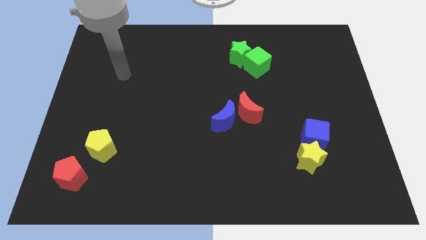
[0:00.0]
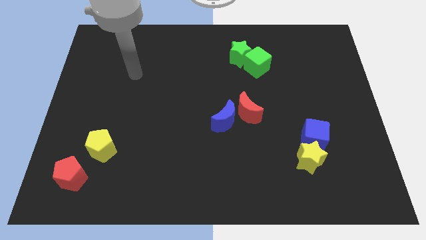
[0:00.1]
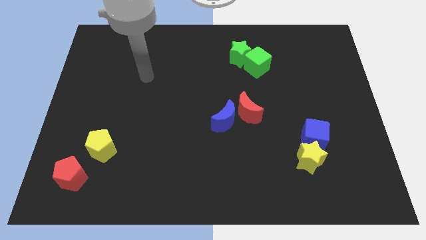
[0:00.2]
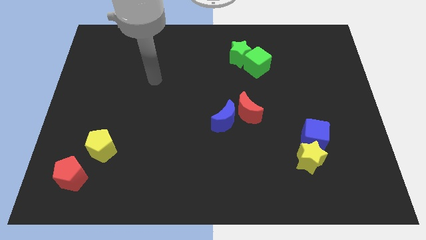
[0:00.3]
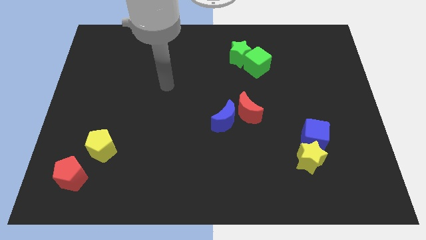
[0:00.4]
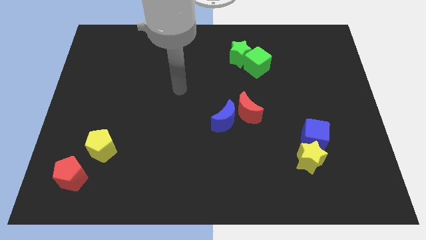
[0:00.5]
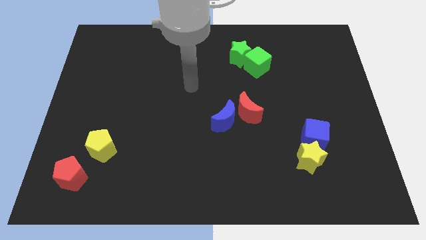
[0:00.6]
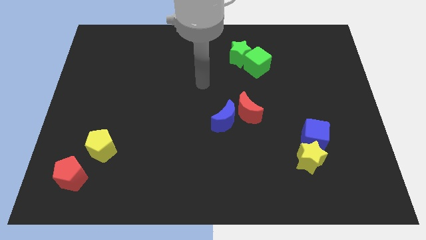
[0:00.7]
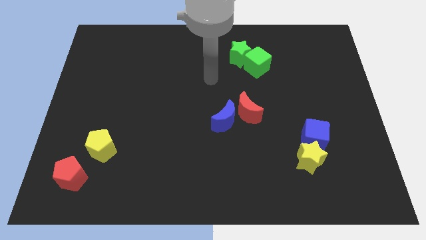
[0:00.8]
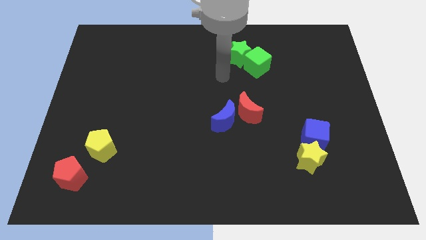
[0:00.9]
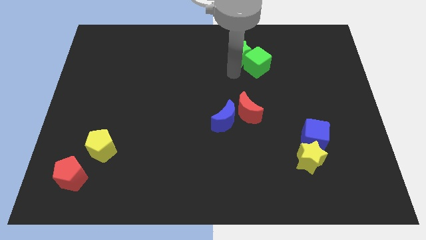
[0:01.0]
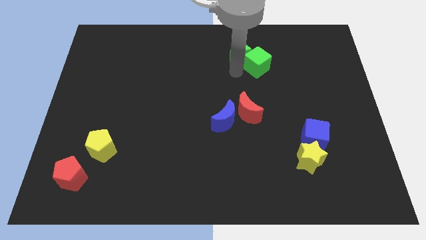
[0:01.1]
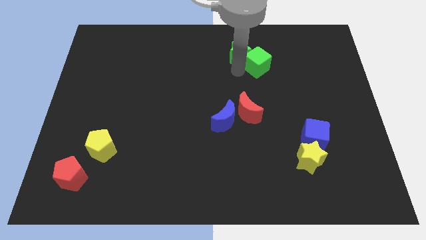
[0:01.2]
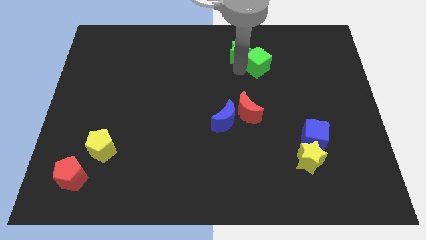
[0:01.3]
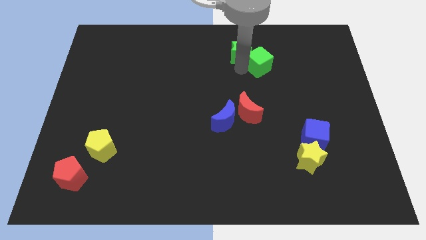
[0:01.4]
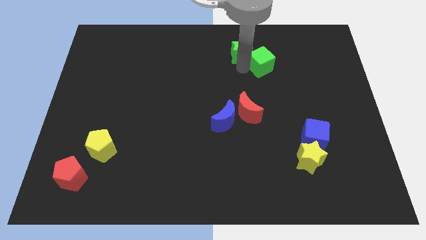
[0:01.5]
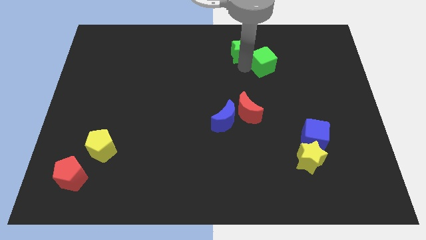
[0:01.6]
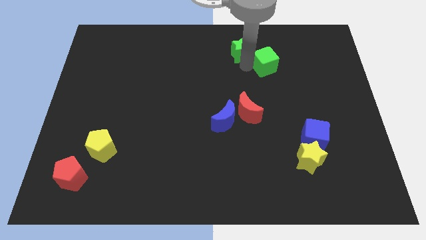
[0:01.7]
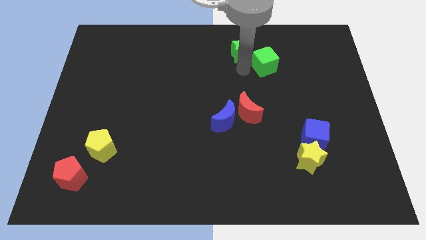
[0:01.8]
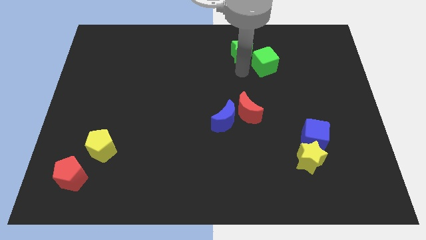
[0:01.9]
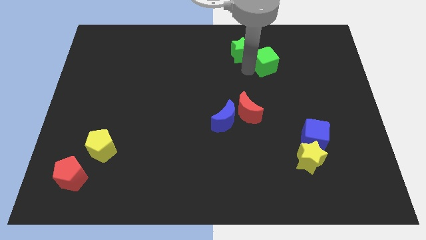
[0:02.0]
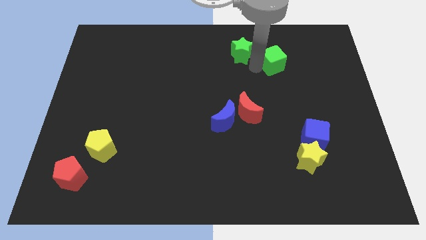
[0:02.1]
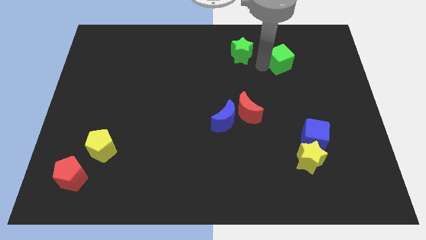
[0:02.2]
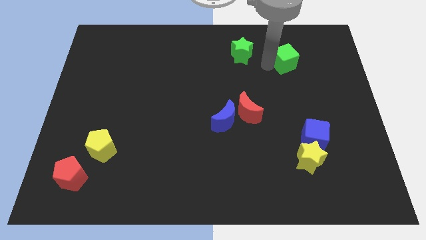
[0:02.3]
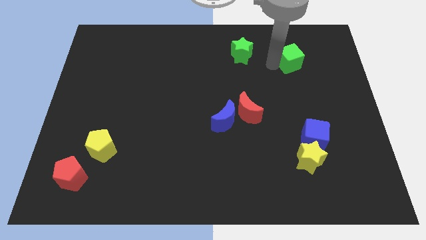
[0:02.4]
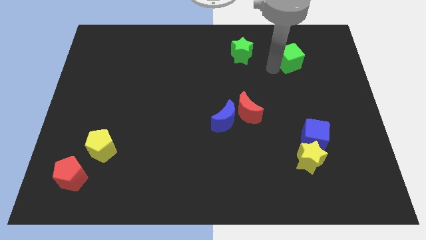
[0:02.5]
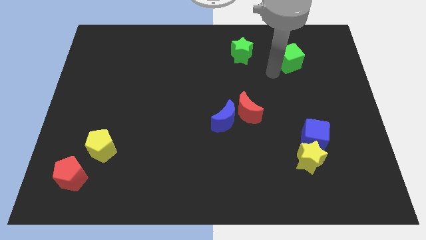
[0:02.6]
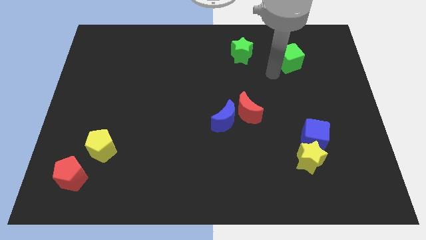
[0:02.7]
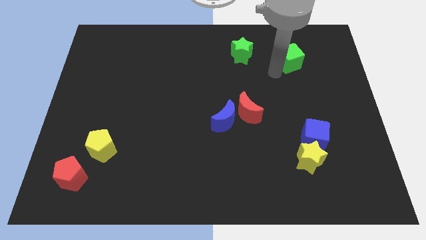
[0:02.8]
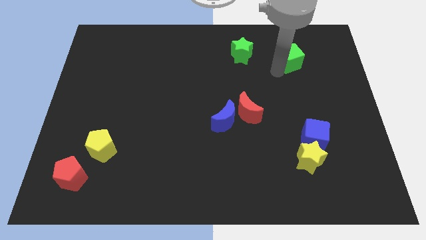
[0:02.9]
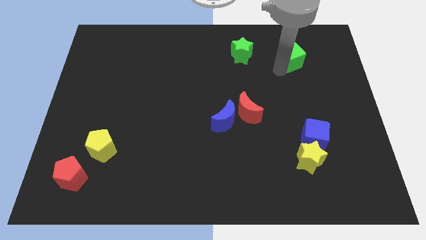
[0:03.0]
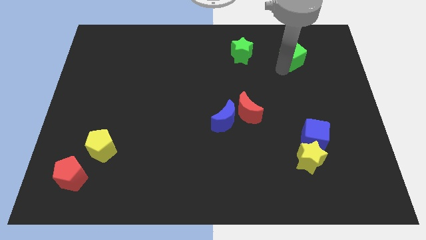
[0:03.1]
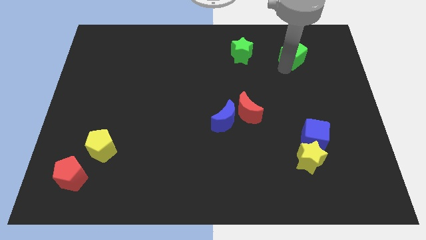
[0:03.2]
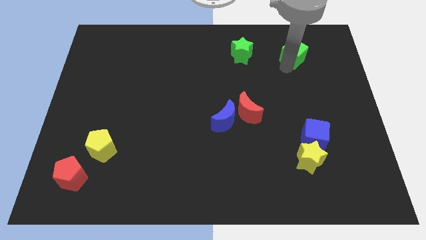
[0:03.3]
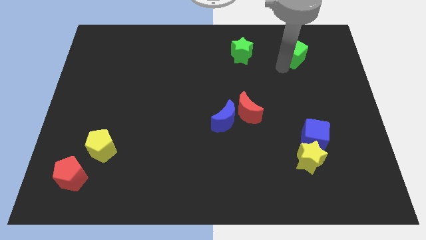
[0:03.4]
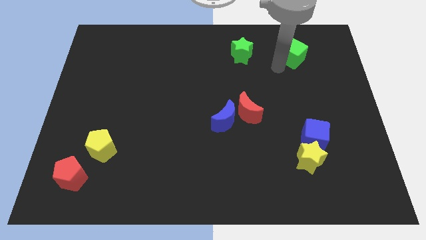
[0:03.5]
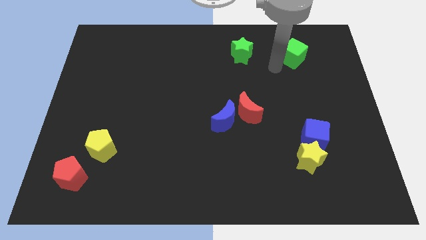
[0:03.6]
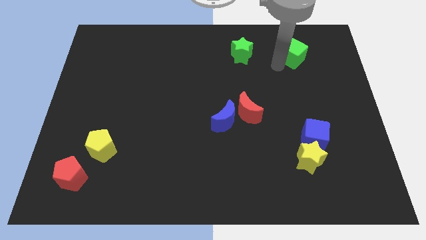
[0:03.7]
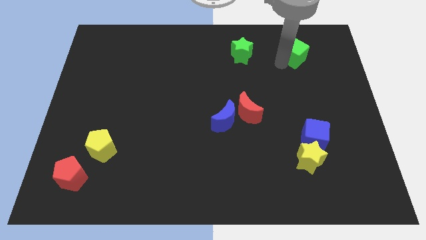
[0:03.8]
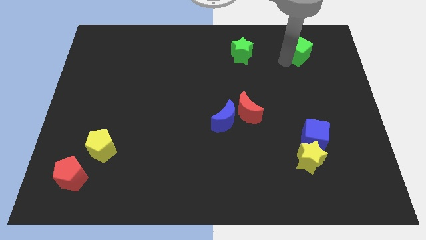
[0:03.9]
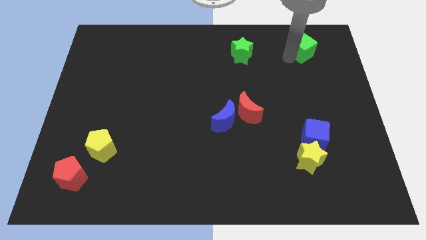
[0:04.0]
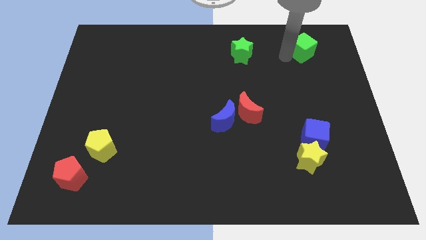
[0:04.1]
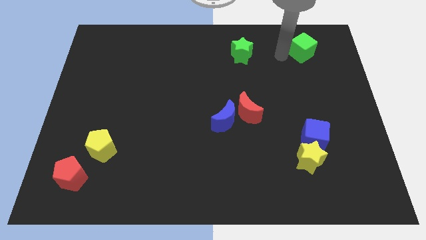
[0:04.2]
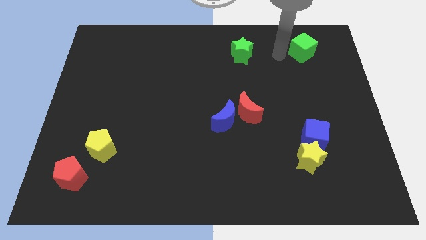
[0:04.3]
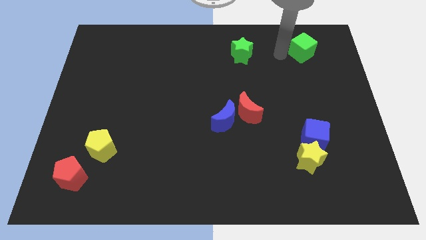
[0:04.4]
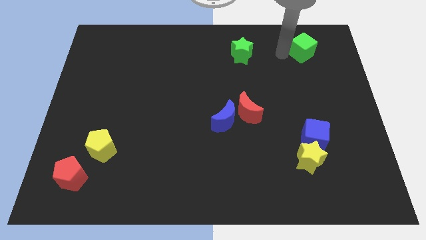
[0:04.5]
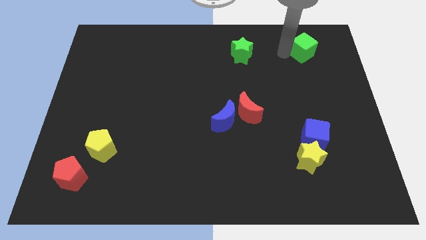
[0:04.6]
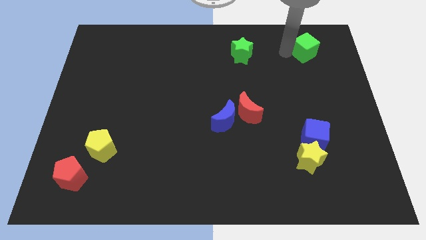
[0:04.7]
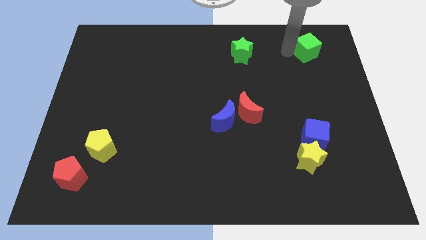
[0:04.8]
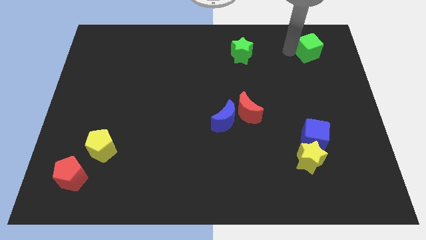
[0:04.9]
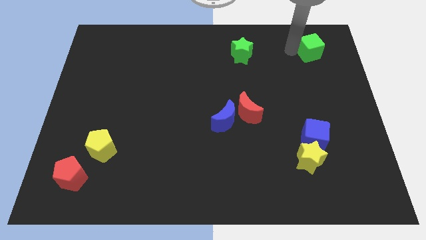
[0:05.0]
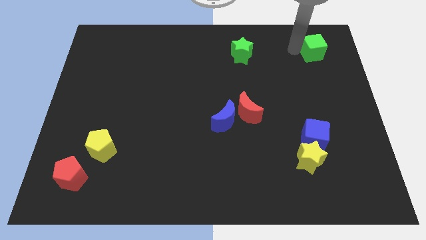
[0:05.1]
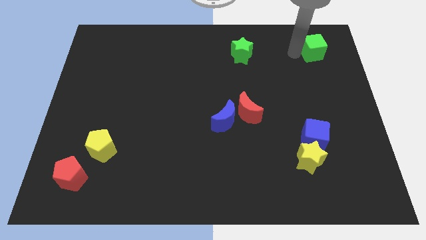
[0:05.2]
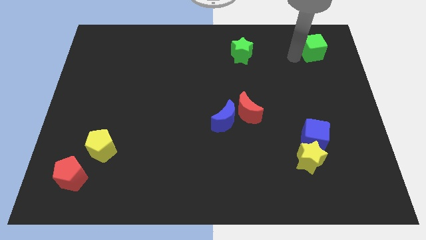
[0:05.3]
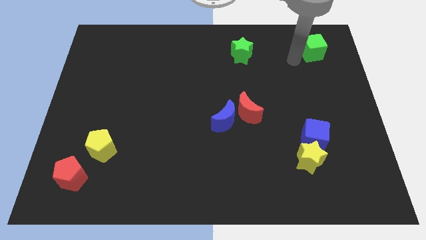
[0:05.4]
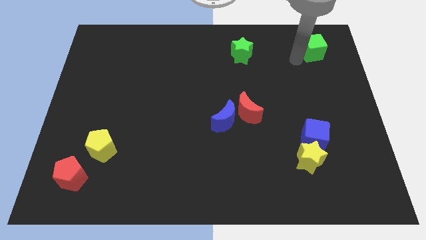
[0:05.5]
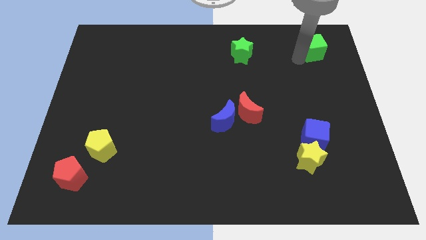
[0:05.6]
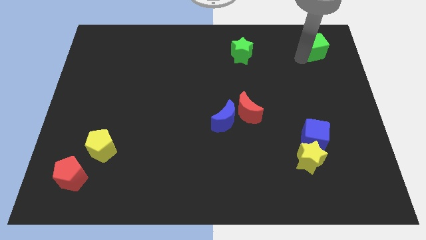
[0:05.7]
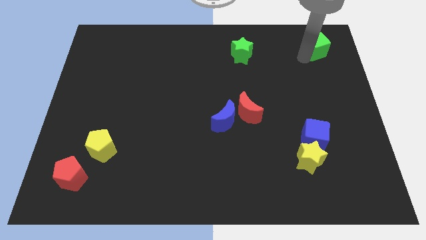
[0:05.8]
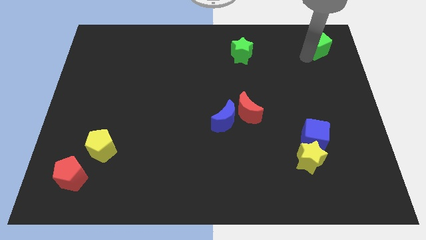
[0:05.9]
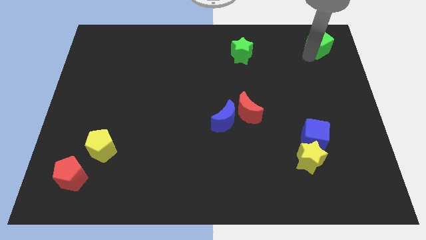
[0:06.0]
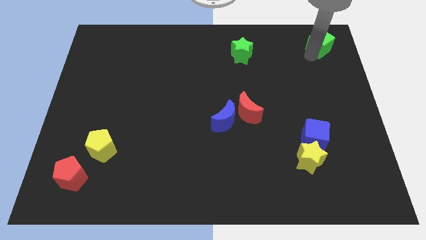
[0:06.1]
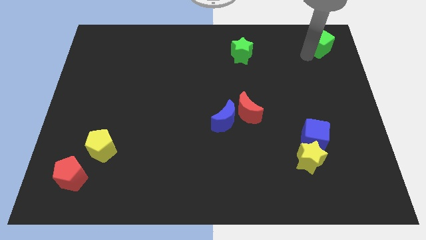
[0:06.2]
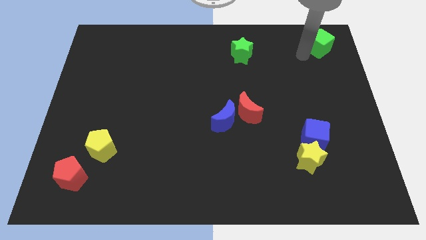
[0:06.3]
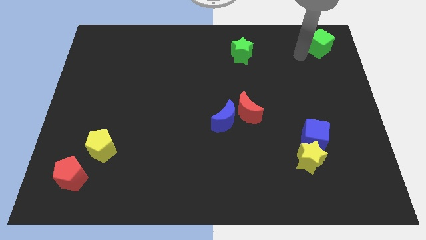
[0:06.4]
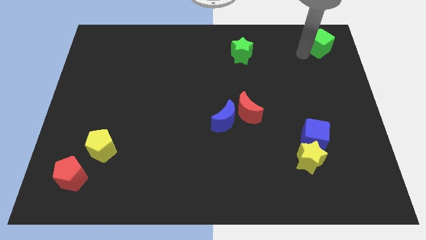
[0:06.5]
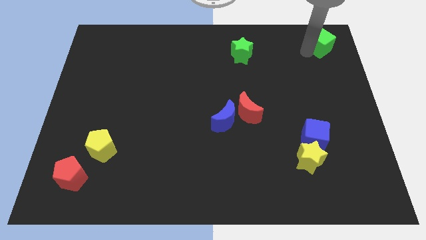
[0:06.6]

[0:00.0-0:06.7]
move the green cube to the upper right corner
